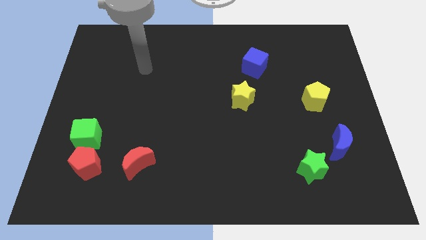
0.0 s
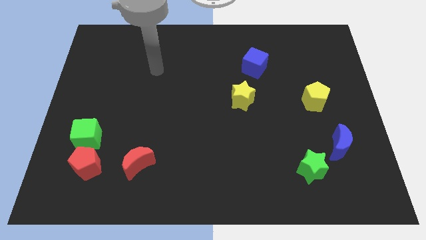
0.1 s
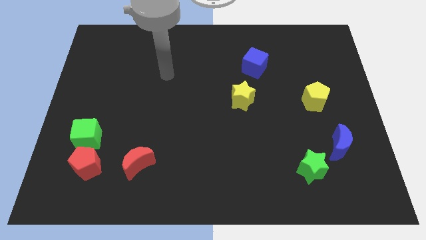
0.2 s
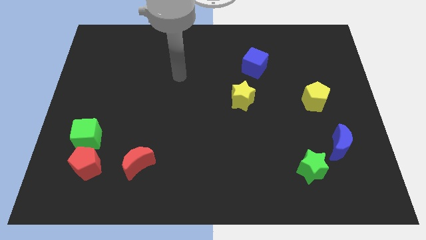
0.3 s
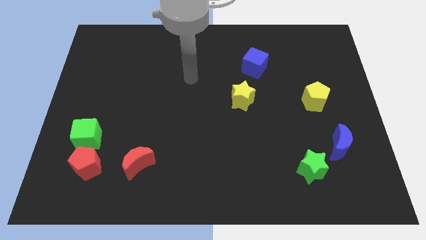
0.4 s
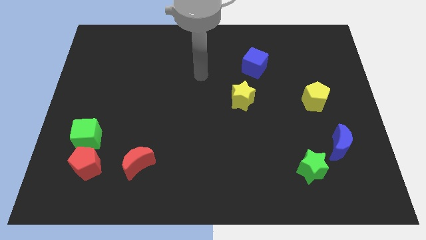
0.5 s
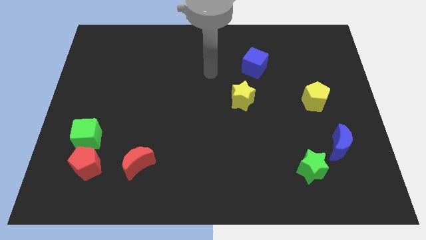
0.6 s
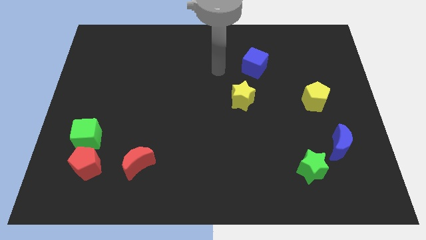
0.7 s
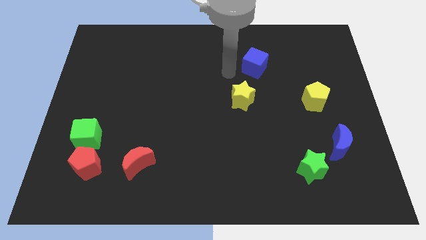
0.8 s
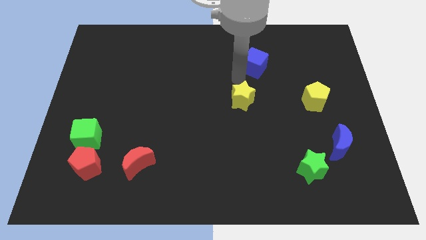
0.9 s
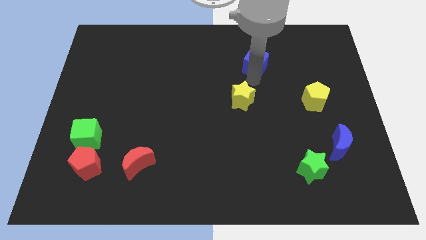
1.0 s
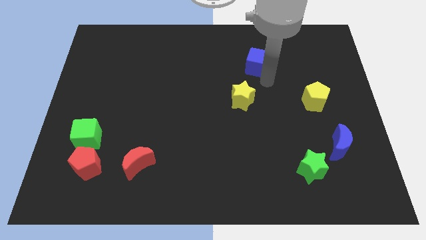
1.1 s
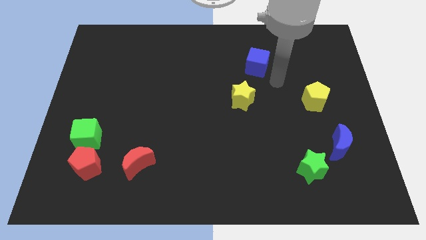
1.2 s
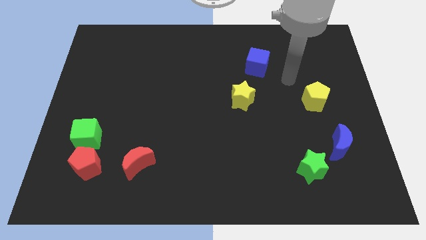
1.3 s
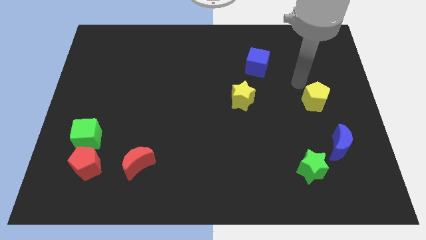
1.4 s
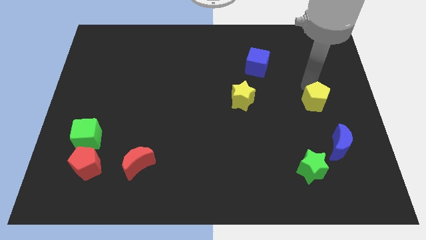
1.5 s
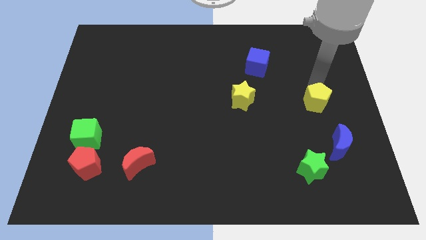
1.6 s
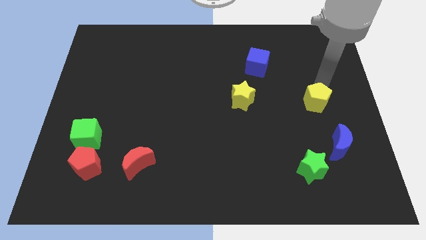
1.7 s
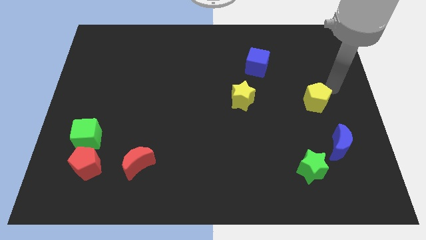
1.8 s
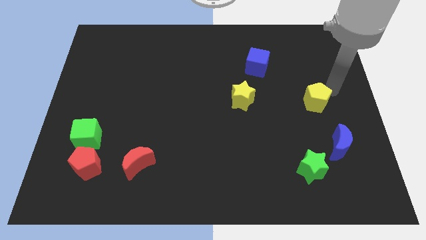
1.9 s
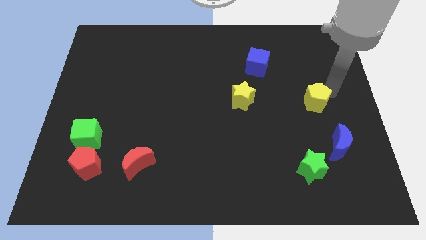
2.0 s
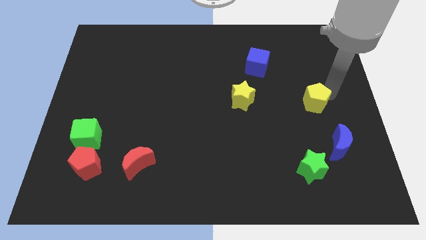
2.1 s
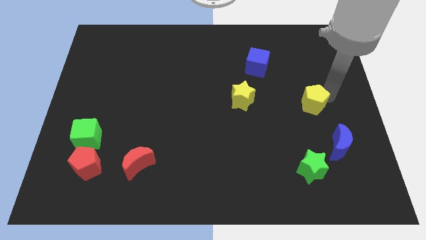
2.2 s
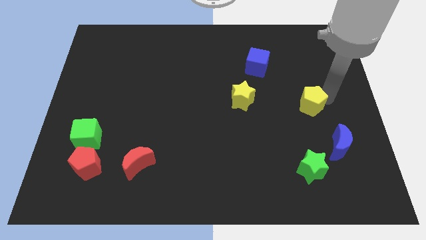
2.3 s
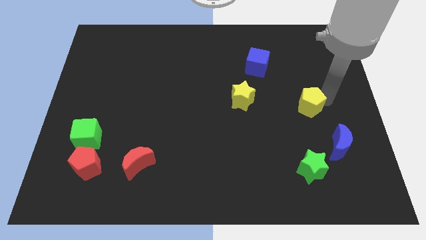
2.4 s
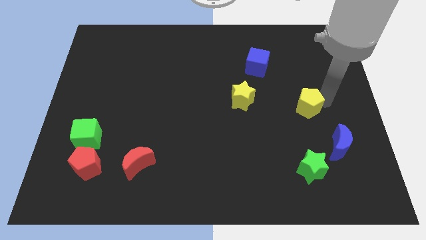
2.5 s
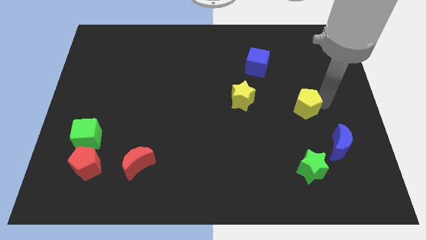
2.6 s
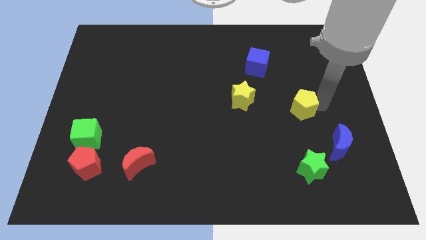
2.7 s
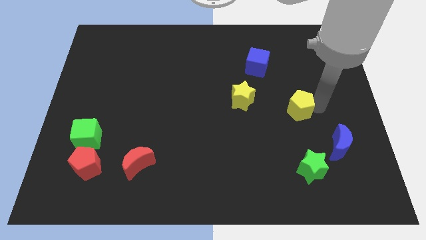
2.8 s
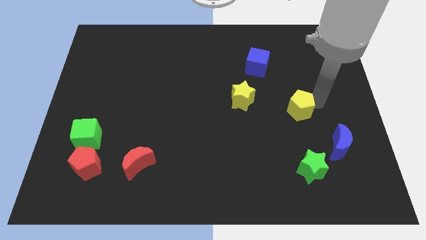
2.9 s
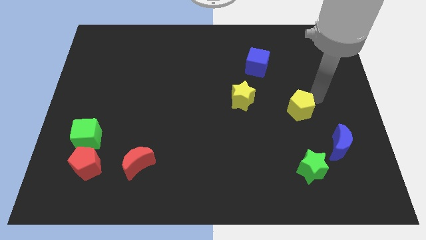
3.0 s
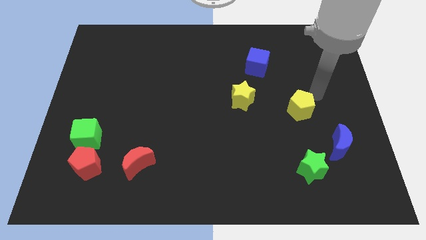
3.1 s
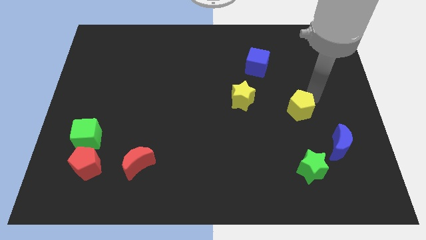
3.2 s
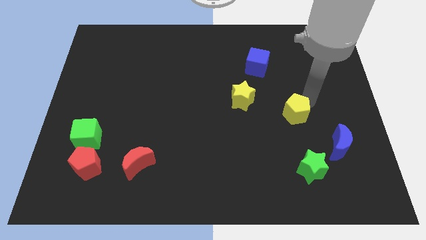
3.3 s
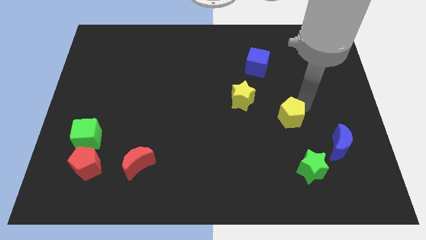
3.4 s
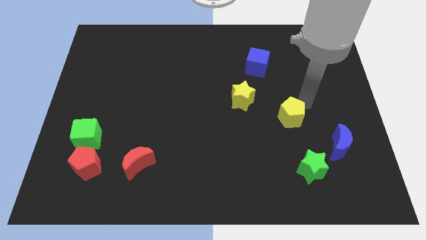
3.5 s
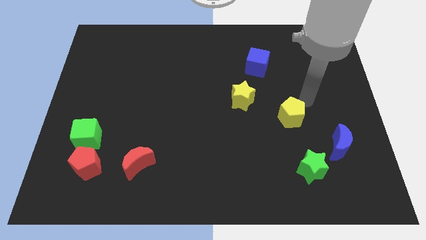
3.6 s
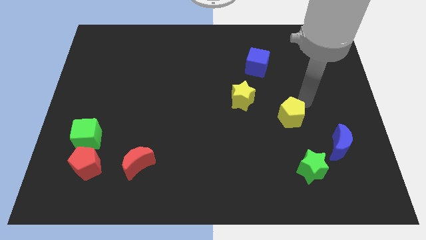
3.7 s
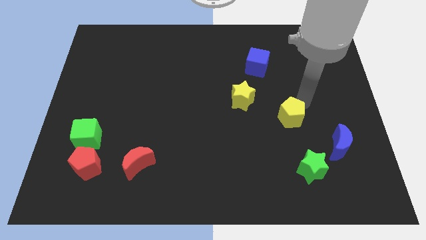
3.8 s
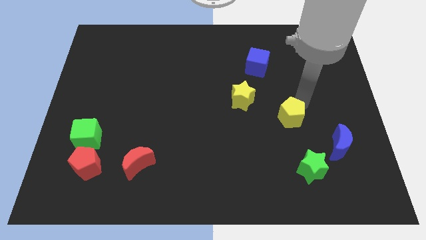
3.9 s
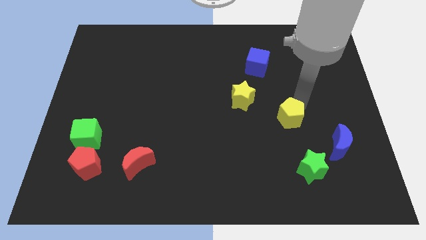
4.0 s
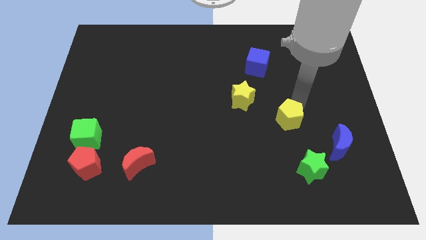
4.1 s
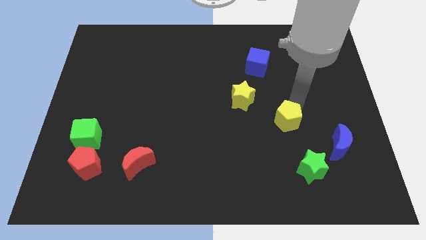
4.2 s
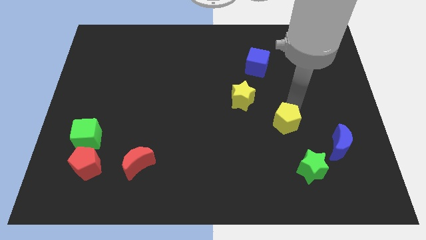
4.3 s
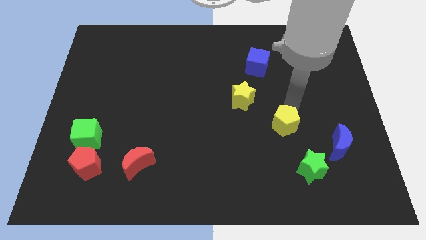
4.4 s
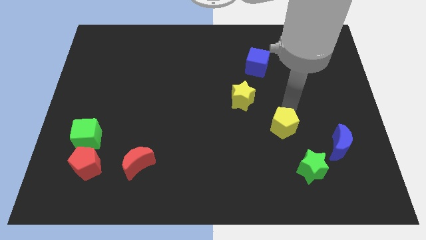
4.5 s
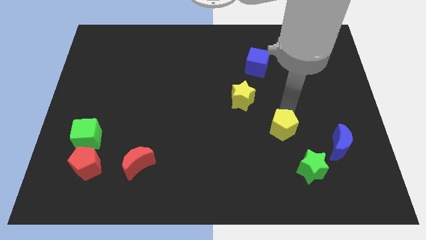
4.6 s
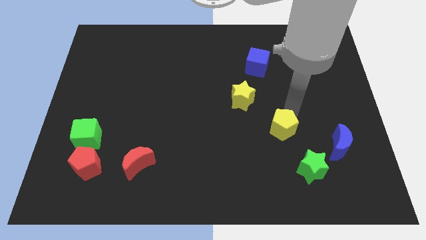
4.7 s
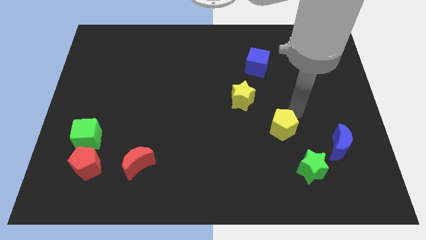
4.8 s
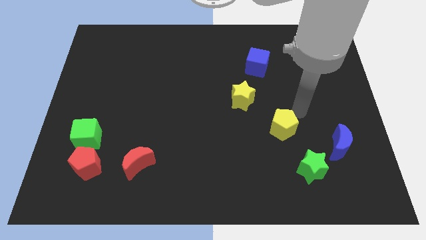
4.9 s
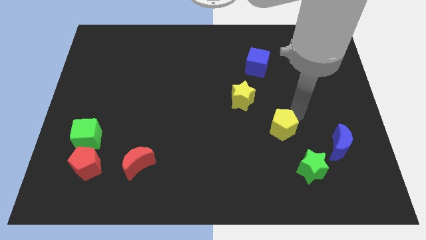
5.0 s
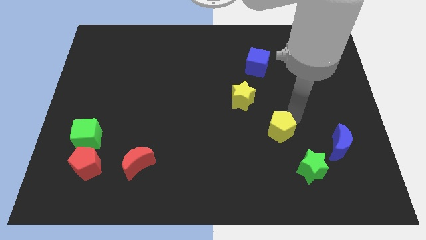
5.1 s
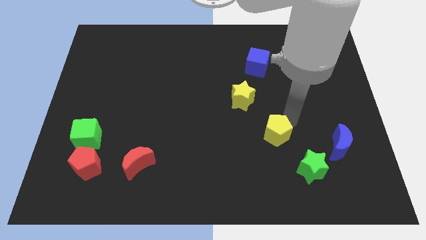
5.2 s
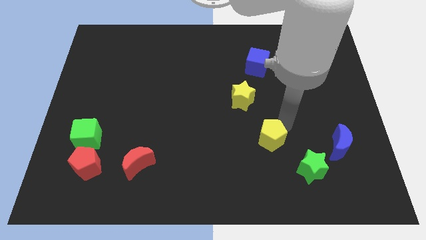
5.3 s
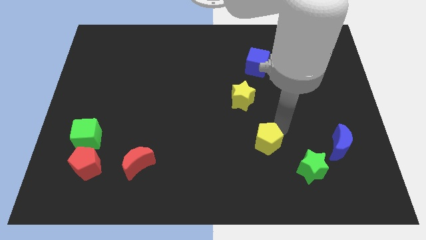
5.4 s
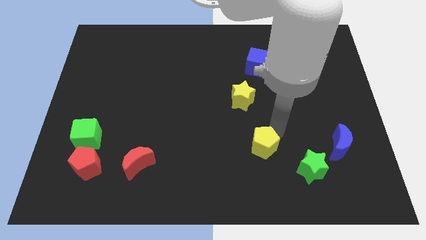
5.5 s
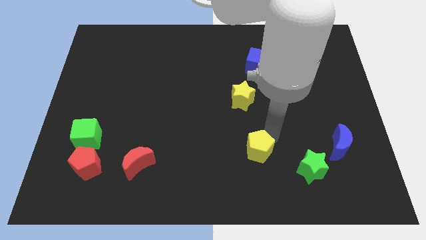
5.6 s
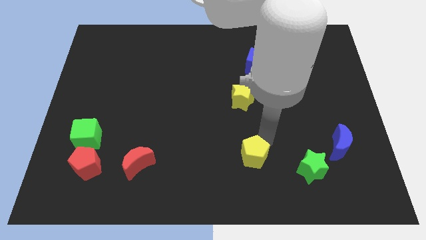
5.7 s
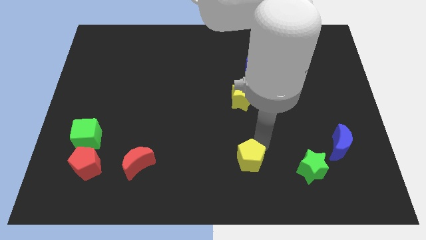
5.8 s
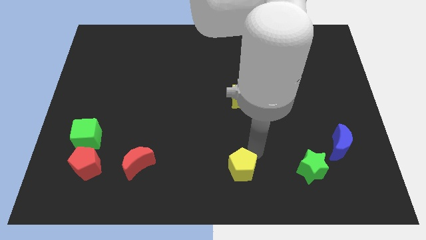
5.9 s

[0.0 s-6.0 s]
slide the yellow pentagon to the bottom

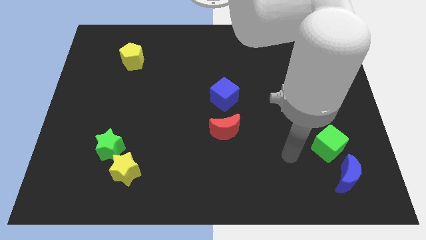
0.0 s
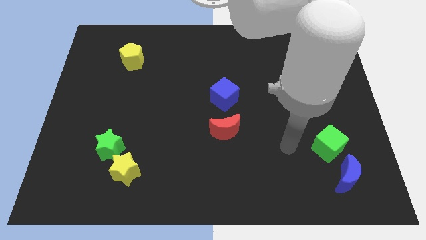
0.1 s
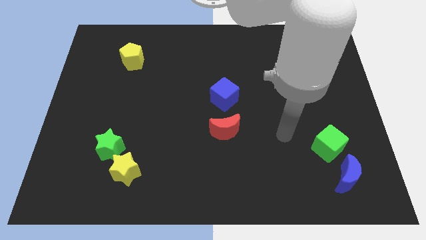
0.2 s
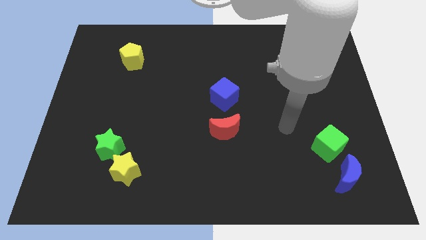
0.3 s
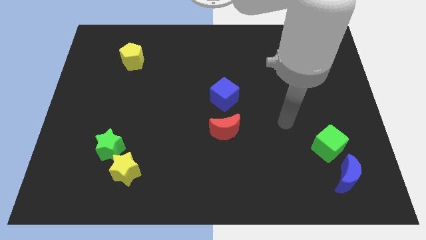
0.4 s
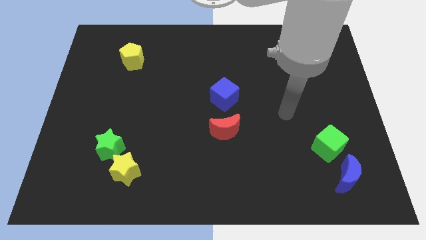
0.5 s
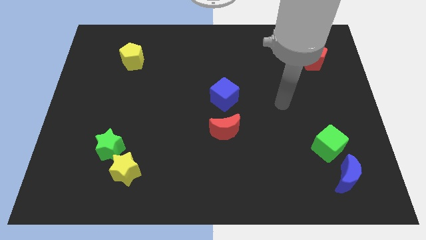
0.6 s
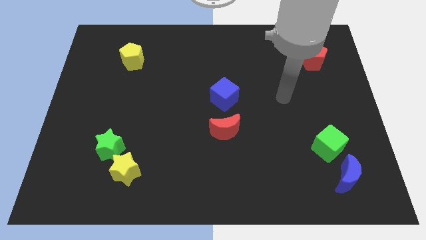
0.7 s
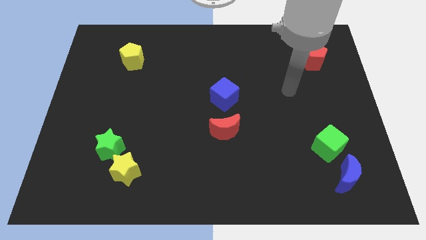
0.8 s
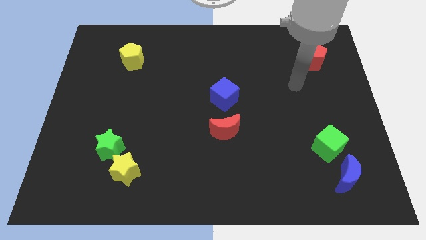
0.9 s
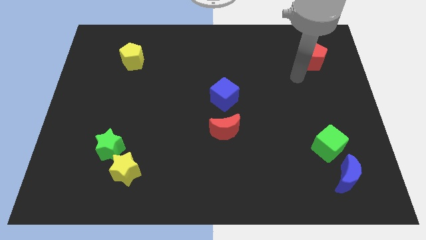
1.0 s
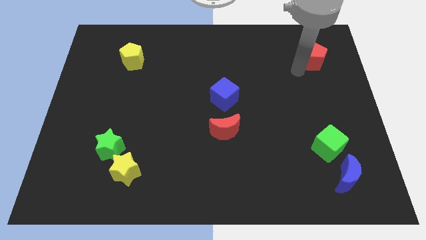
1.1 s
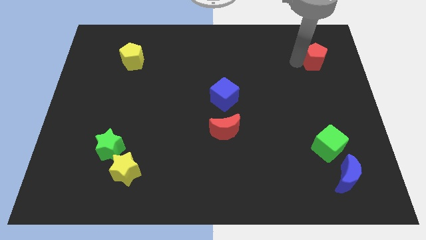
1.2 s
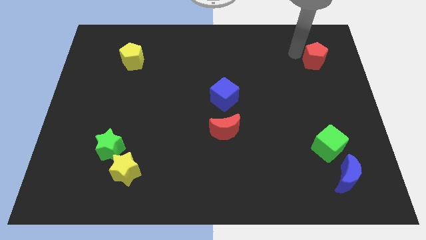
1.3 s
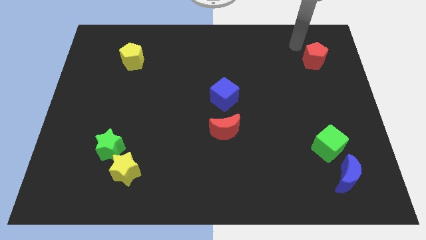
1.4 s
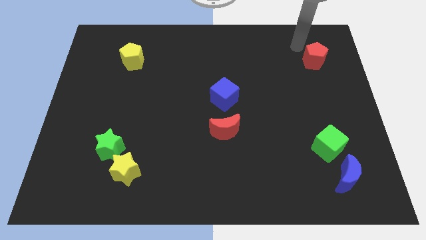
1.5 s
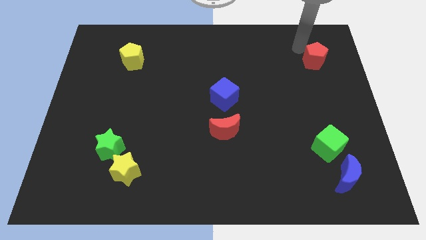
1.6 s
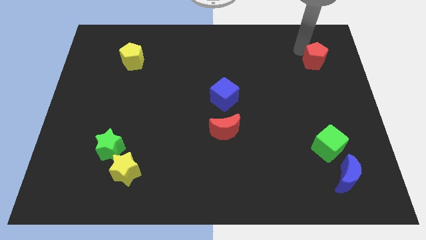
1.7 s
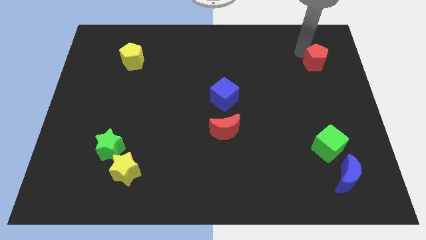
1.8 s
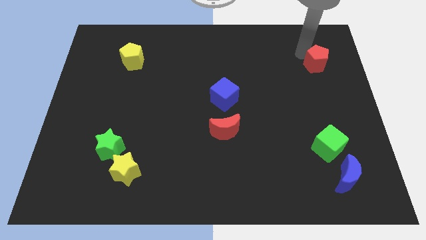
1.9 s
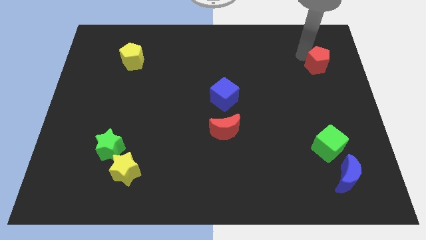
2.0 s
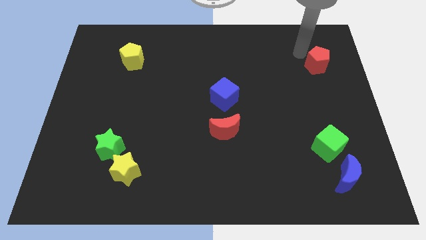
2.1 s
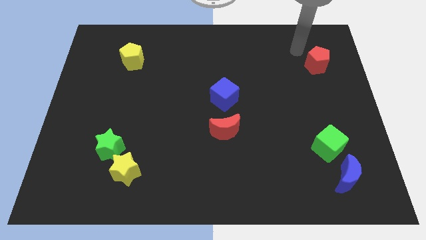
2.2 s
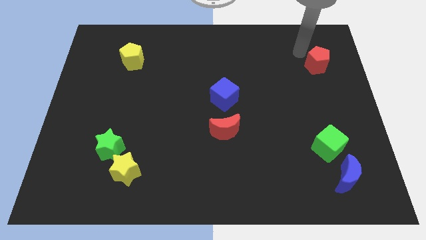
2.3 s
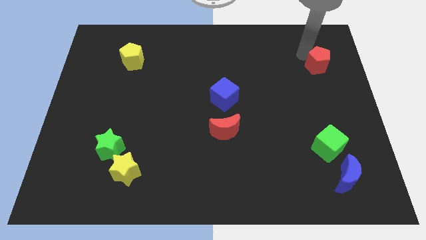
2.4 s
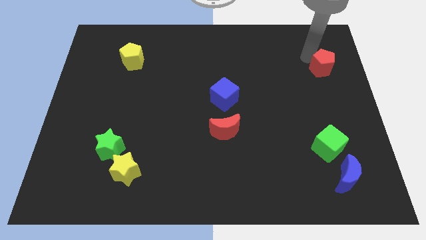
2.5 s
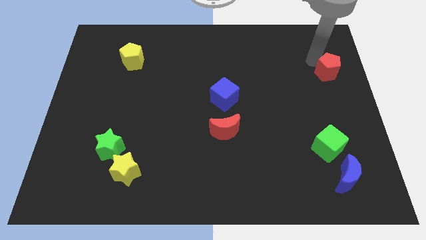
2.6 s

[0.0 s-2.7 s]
push the red pentagon to the right side of the board
